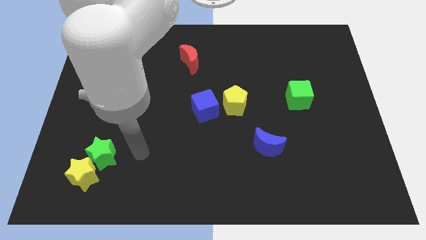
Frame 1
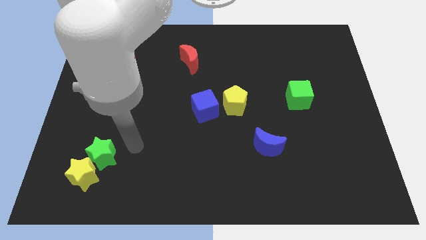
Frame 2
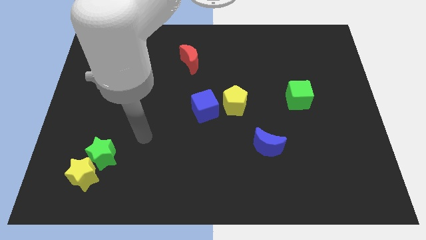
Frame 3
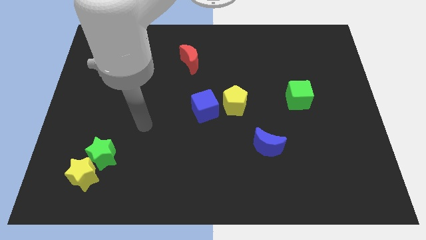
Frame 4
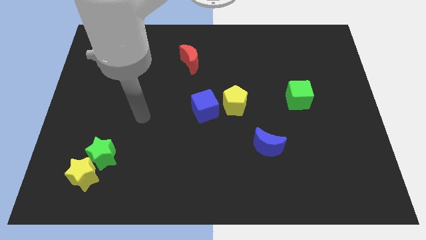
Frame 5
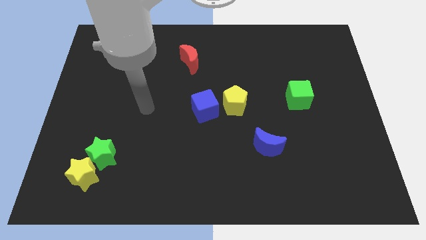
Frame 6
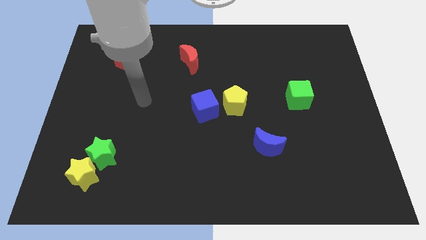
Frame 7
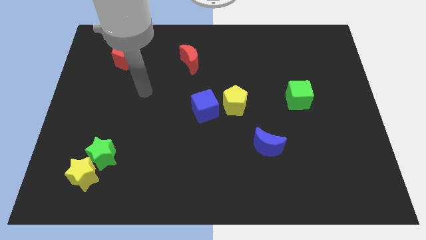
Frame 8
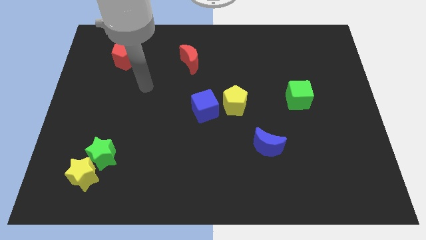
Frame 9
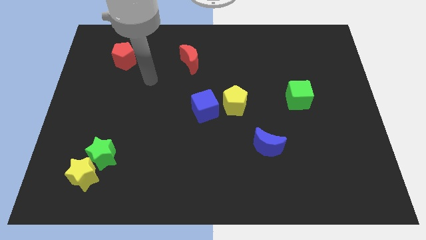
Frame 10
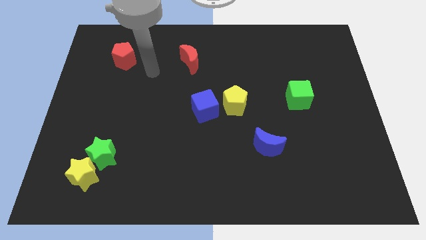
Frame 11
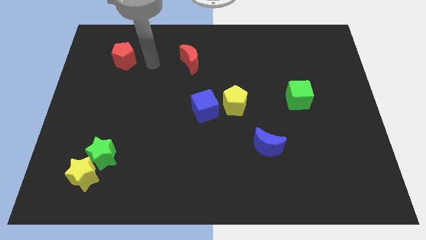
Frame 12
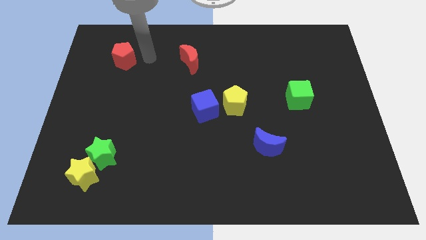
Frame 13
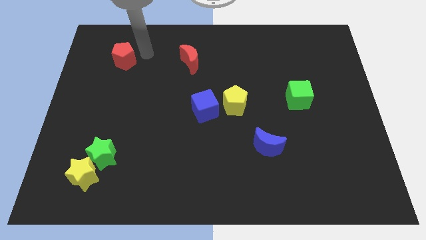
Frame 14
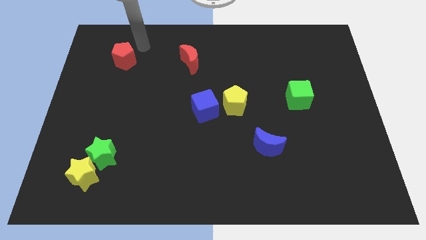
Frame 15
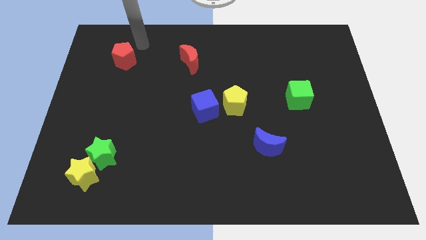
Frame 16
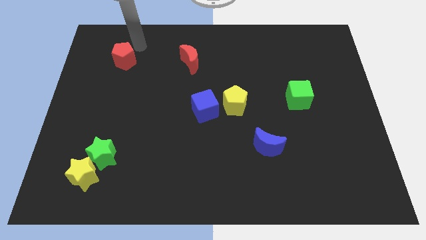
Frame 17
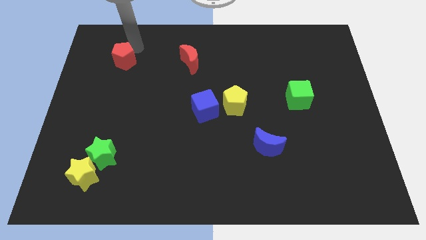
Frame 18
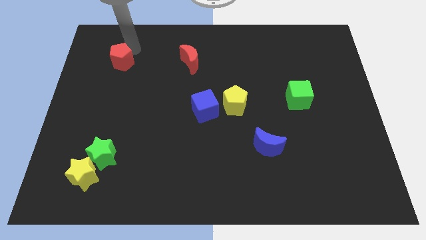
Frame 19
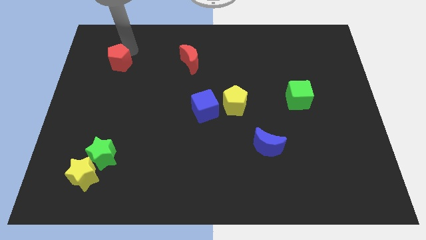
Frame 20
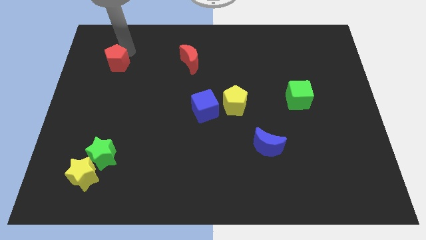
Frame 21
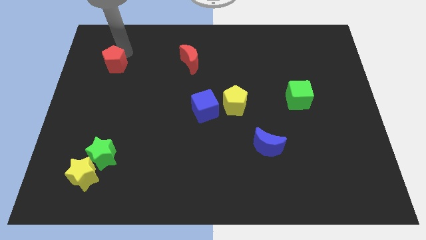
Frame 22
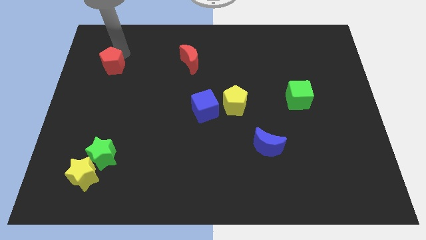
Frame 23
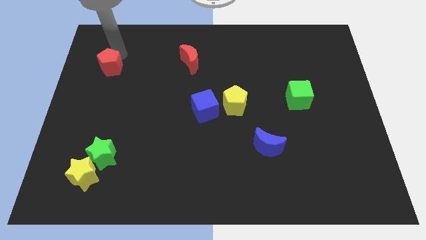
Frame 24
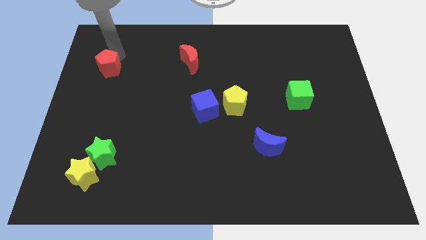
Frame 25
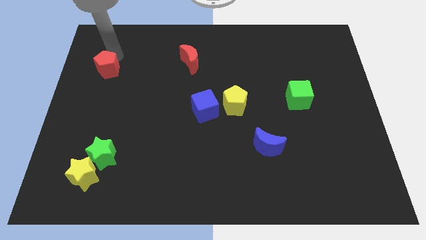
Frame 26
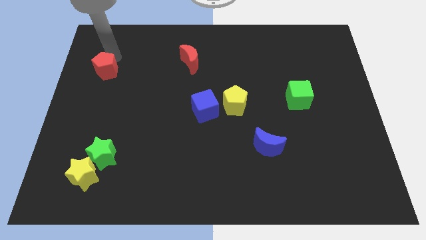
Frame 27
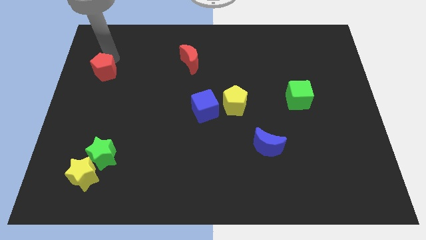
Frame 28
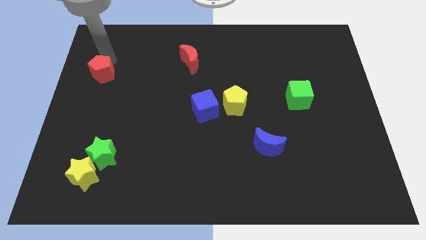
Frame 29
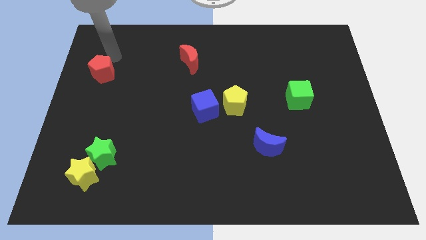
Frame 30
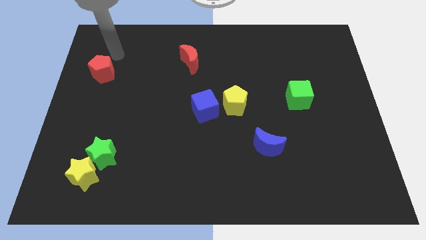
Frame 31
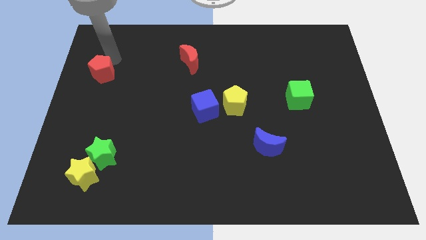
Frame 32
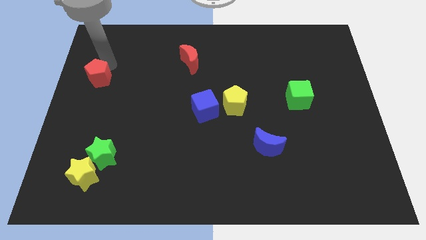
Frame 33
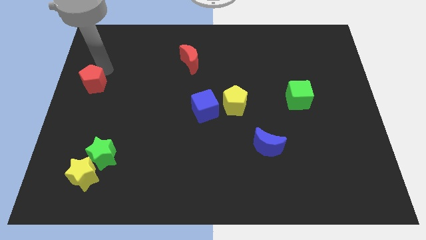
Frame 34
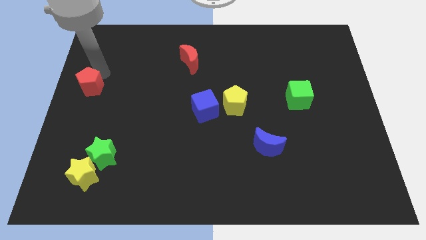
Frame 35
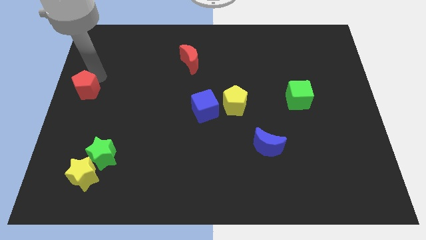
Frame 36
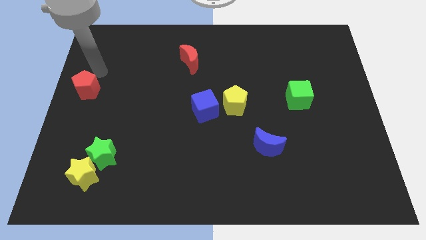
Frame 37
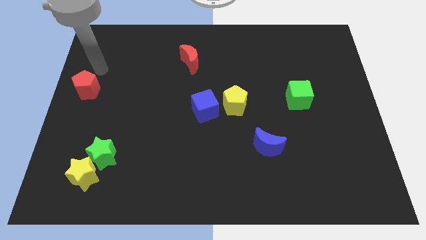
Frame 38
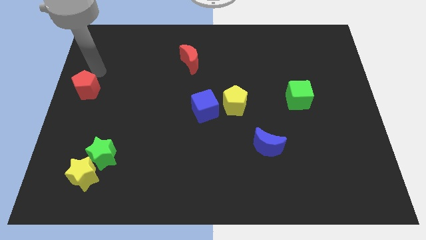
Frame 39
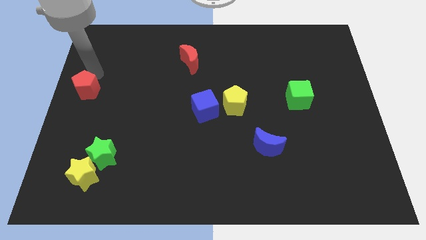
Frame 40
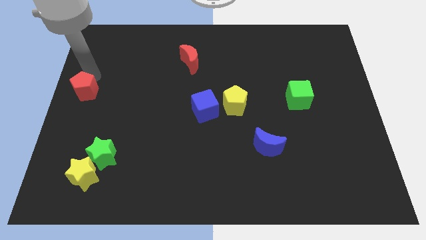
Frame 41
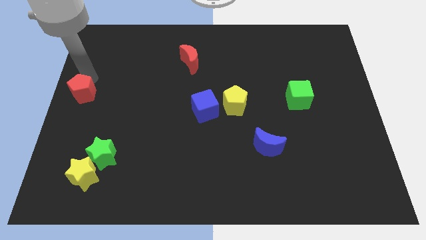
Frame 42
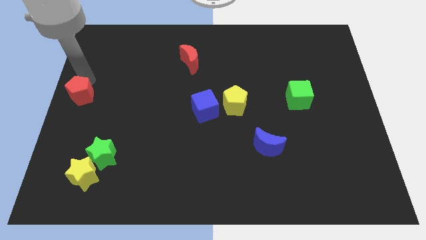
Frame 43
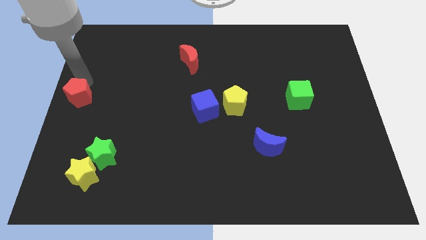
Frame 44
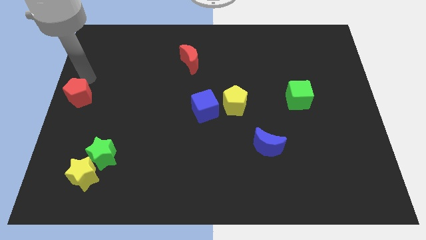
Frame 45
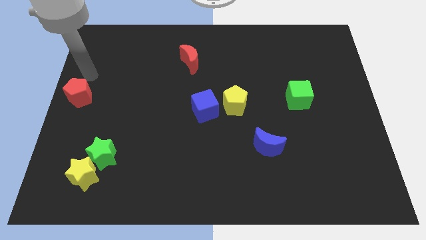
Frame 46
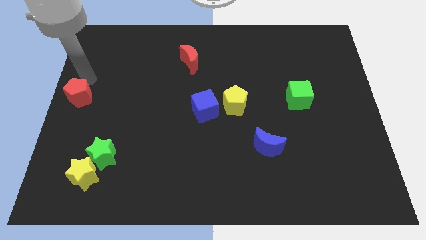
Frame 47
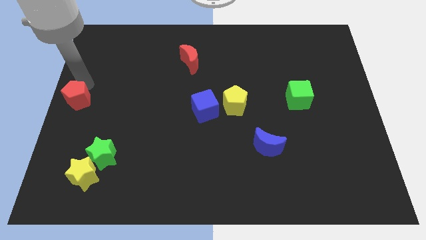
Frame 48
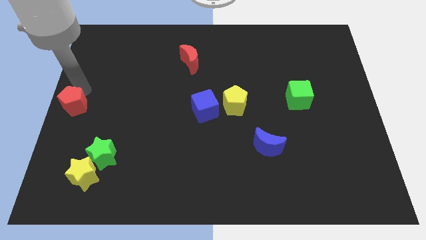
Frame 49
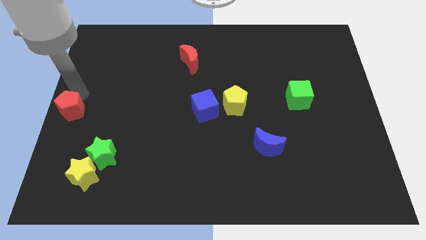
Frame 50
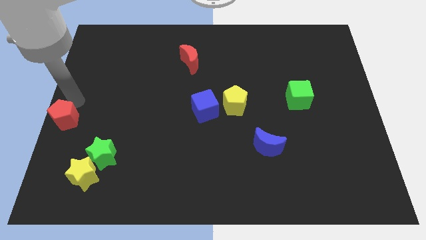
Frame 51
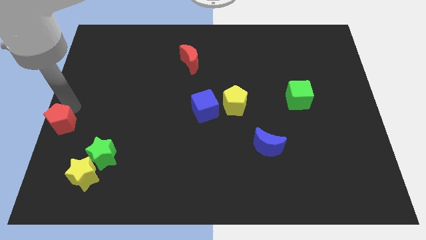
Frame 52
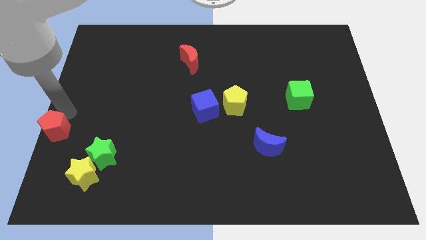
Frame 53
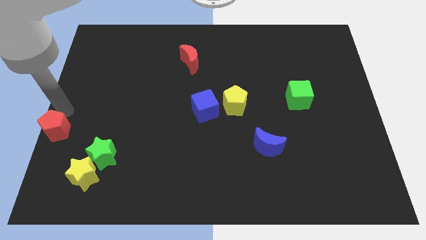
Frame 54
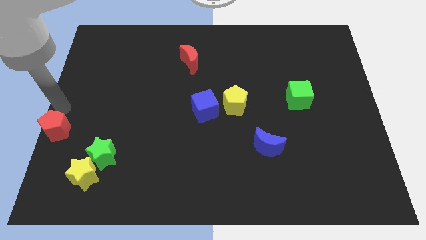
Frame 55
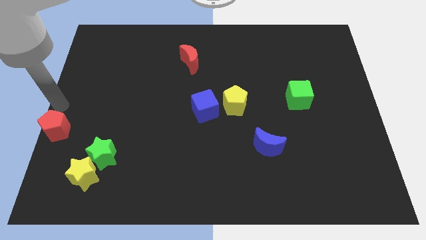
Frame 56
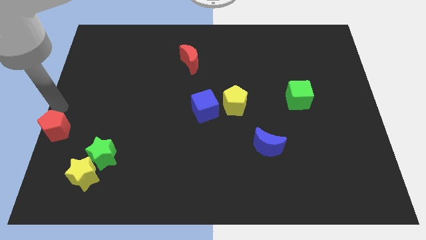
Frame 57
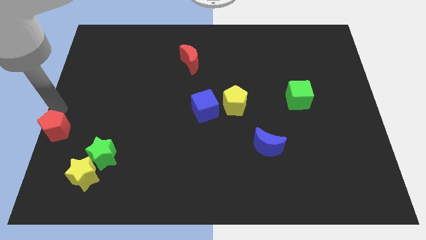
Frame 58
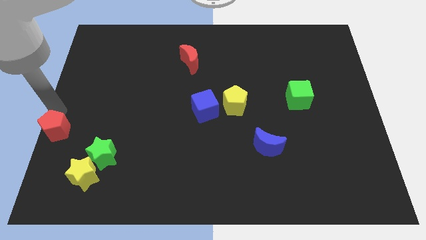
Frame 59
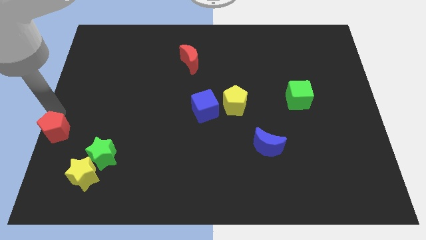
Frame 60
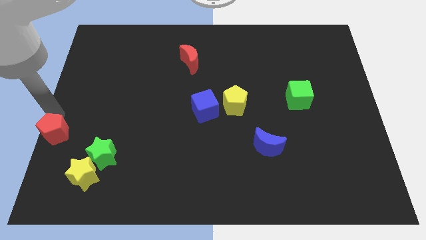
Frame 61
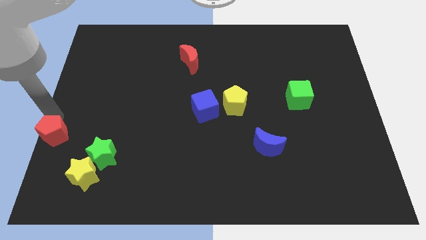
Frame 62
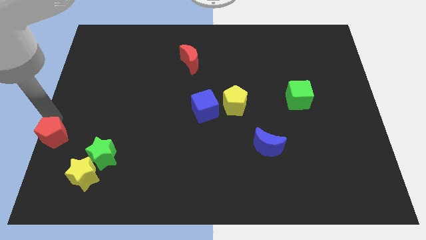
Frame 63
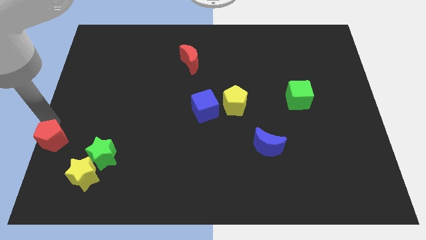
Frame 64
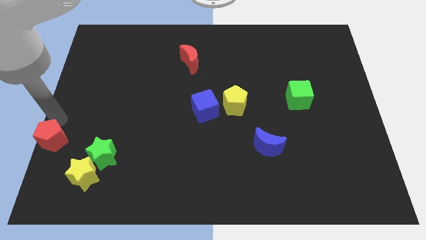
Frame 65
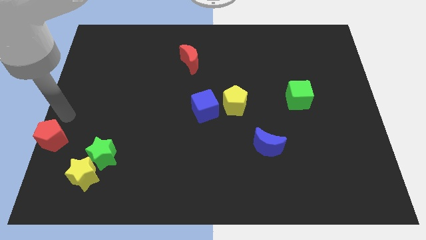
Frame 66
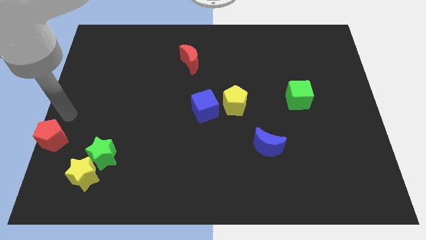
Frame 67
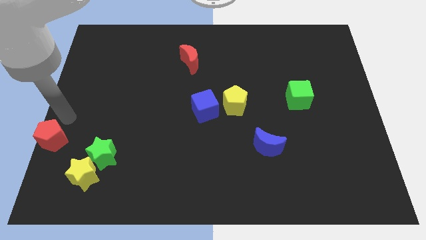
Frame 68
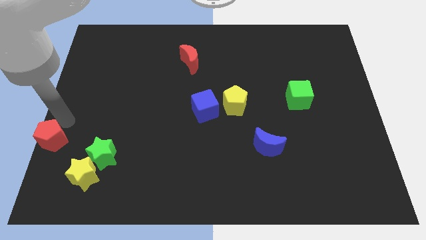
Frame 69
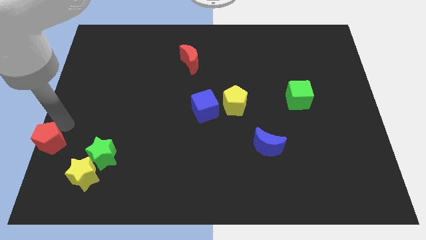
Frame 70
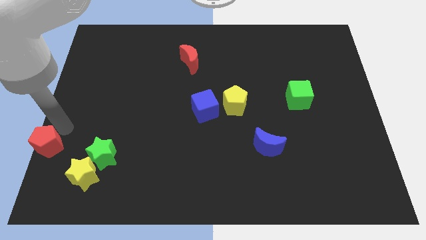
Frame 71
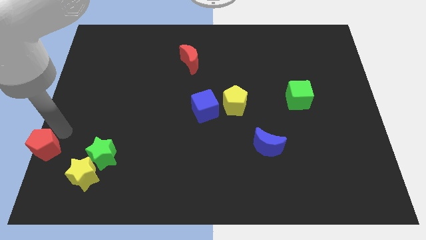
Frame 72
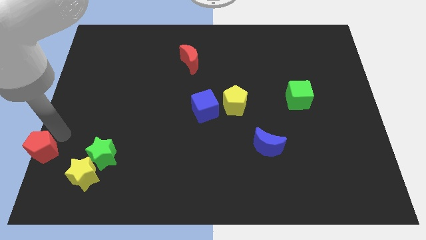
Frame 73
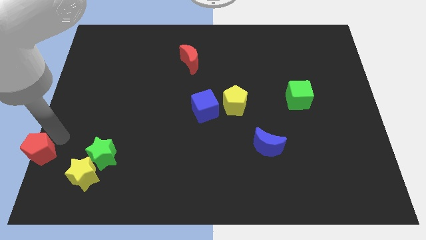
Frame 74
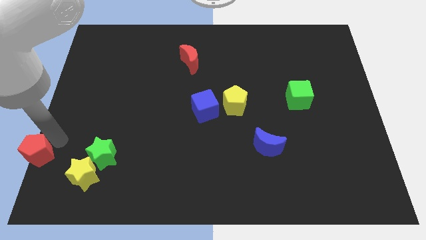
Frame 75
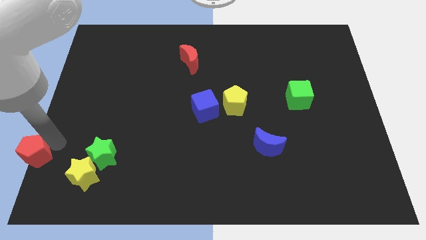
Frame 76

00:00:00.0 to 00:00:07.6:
move the red pentagon to the lower left corner
